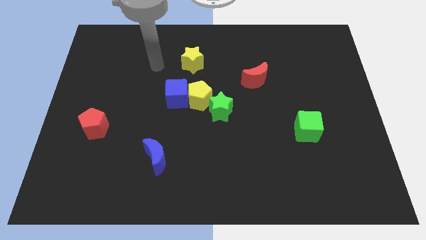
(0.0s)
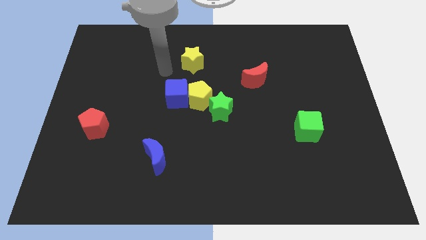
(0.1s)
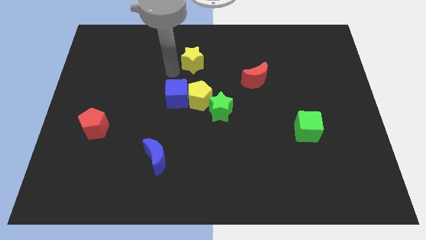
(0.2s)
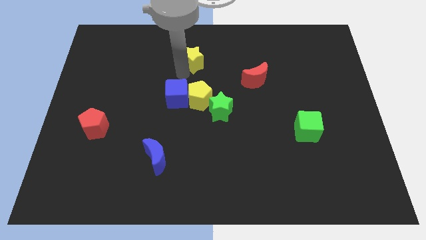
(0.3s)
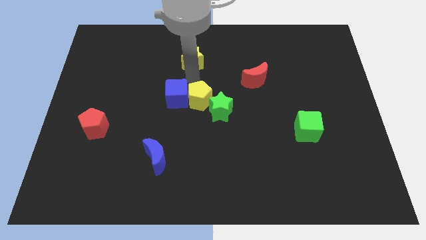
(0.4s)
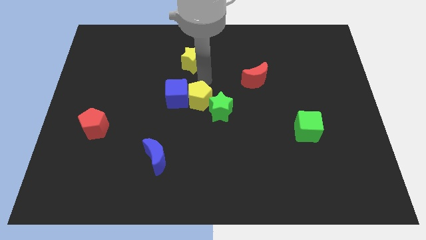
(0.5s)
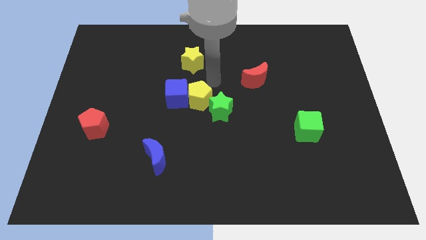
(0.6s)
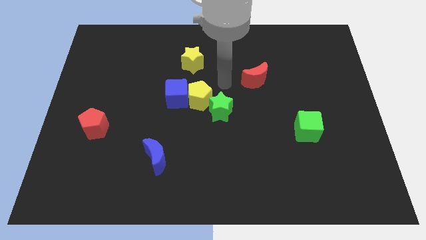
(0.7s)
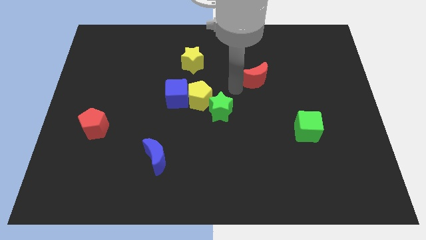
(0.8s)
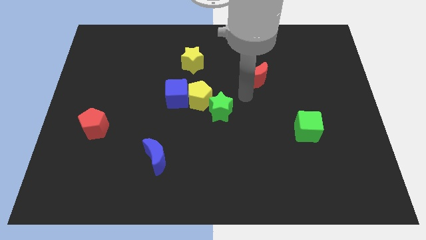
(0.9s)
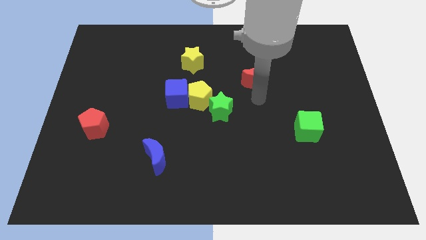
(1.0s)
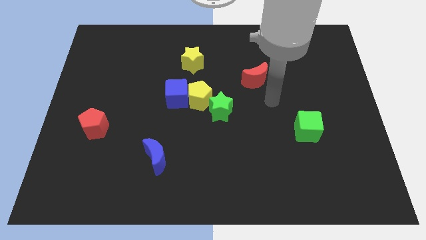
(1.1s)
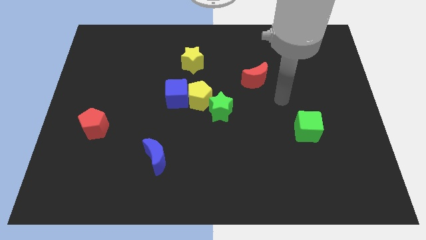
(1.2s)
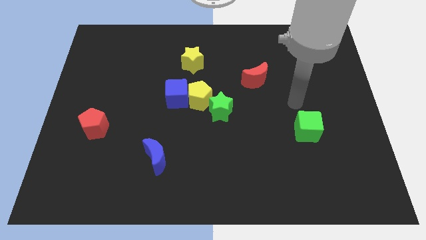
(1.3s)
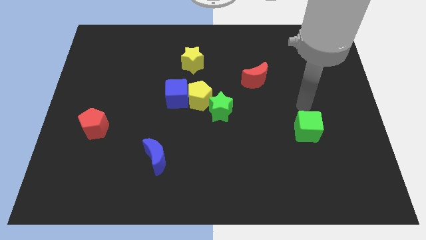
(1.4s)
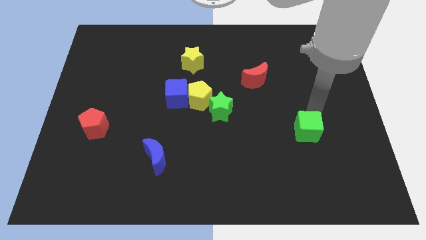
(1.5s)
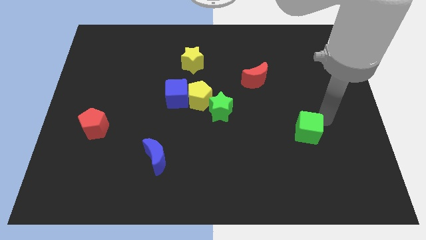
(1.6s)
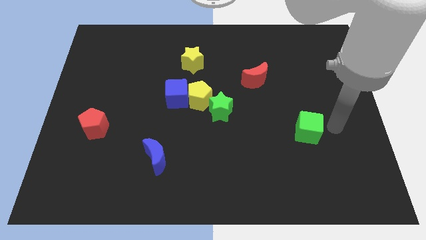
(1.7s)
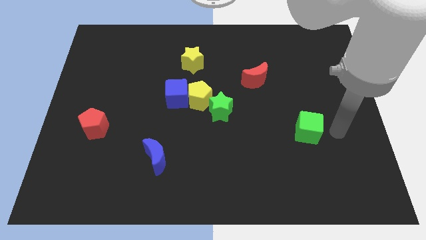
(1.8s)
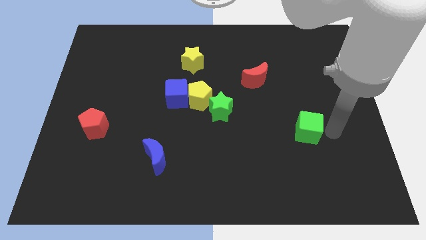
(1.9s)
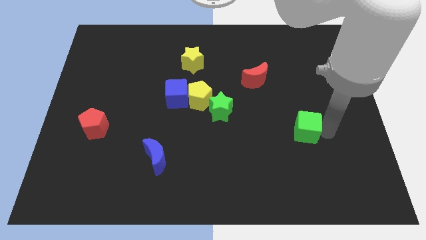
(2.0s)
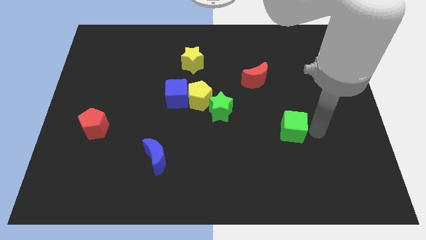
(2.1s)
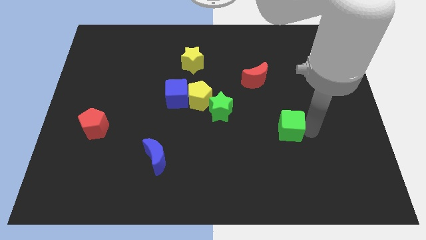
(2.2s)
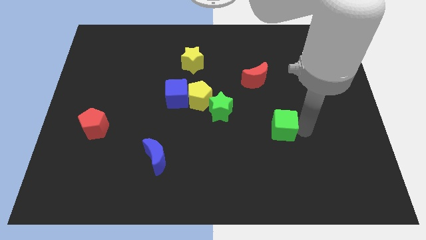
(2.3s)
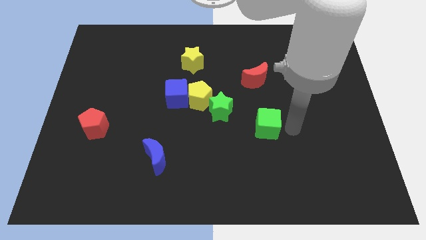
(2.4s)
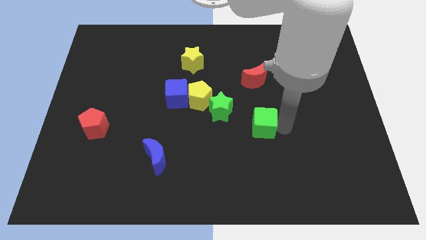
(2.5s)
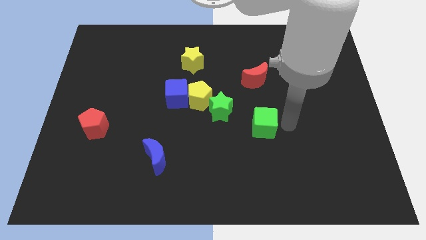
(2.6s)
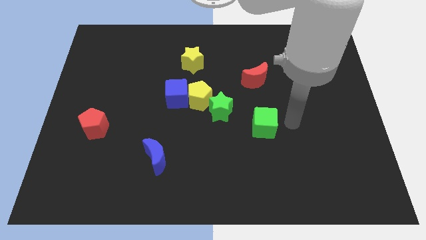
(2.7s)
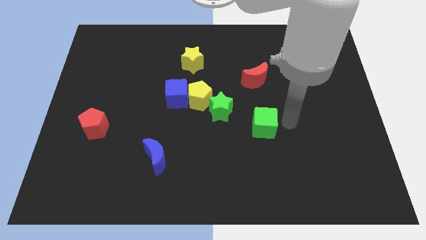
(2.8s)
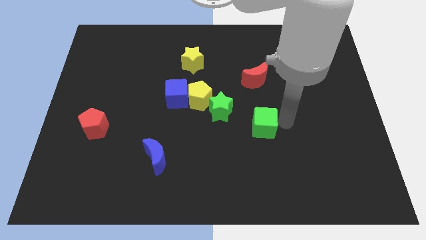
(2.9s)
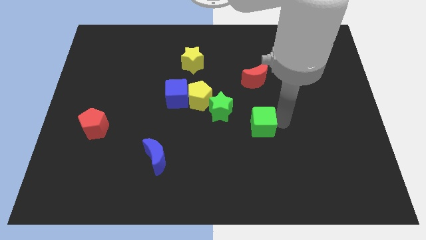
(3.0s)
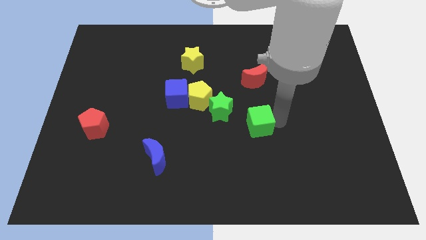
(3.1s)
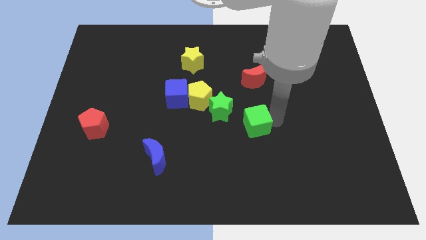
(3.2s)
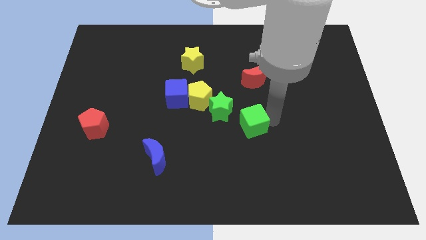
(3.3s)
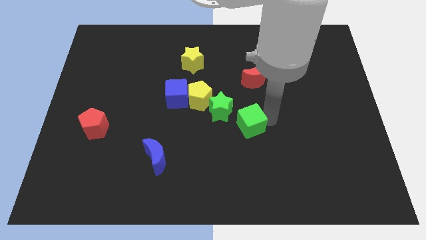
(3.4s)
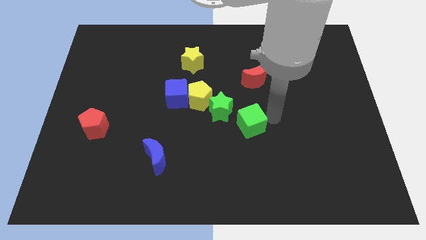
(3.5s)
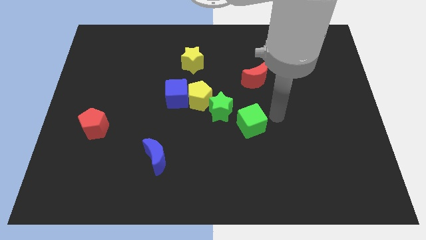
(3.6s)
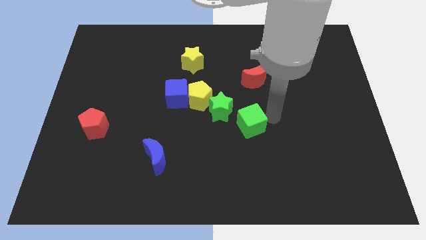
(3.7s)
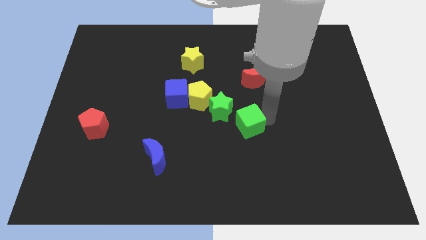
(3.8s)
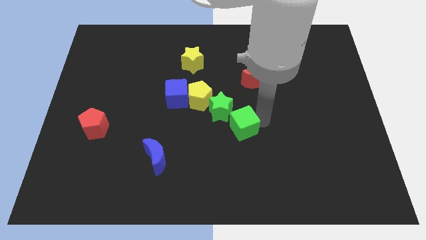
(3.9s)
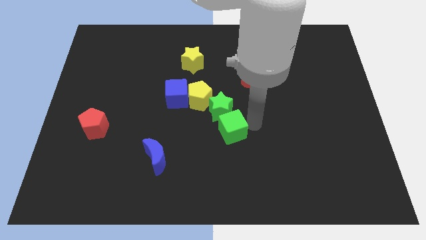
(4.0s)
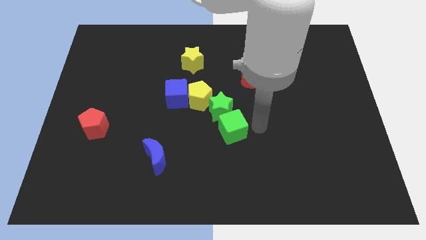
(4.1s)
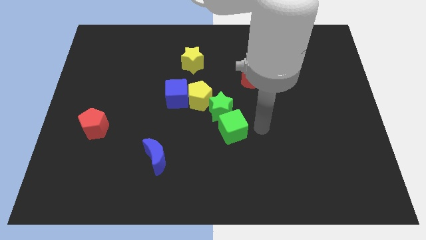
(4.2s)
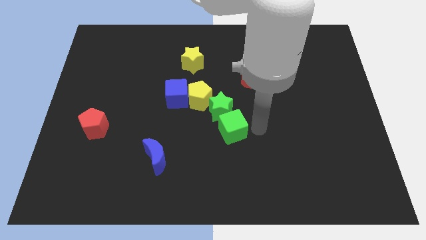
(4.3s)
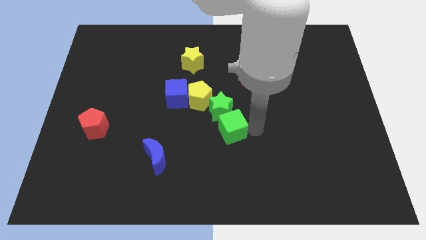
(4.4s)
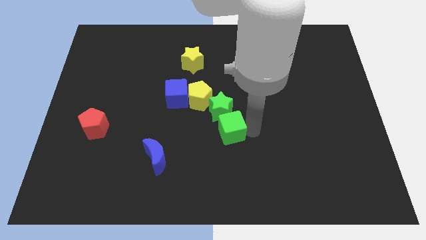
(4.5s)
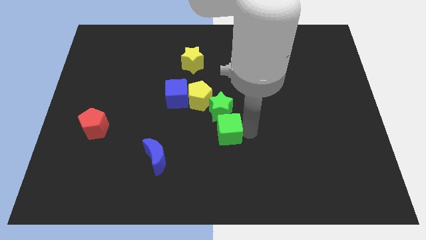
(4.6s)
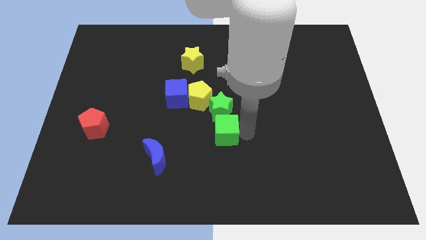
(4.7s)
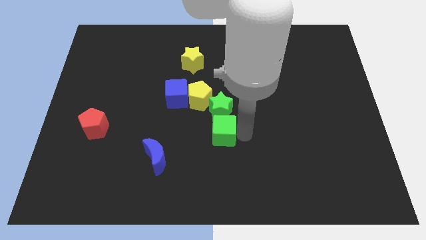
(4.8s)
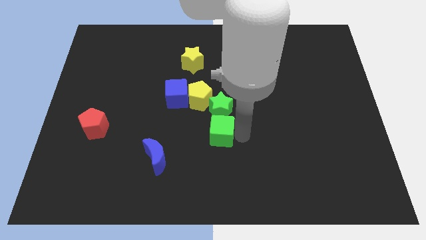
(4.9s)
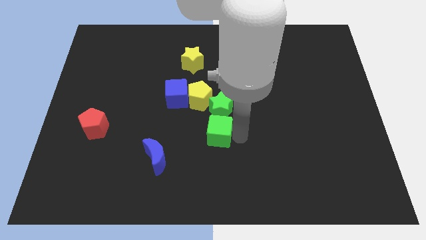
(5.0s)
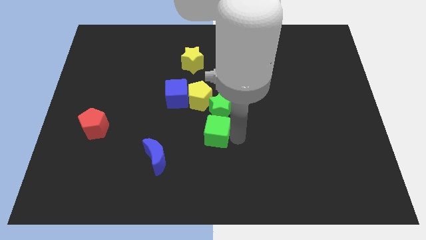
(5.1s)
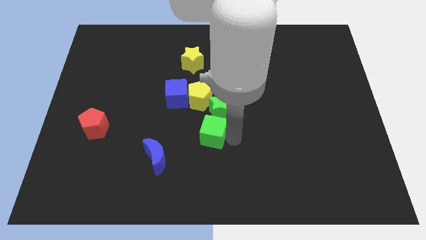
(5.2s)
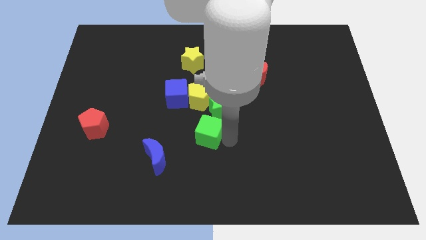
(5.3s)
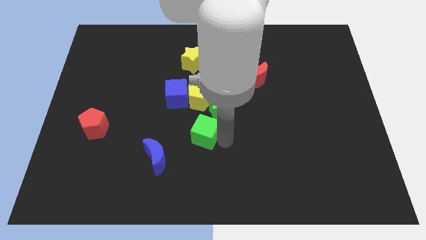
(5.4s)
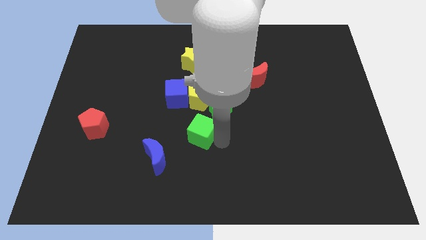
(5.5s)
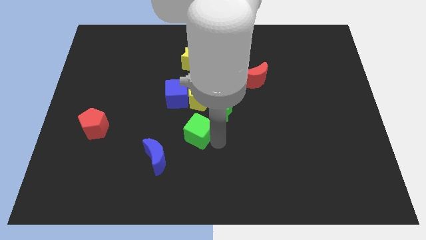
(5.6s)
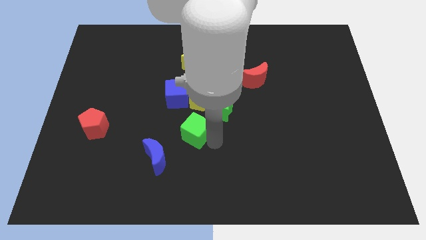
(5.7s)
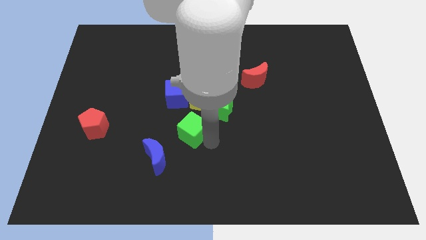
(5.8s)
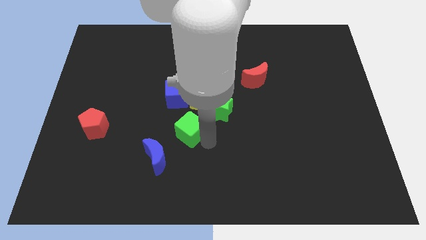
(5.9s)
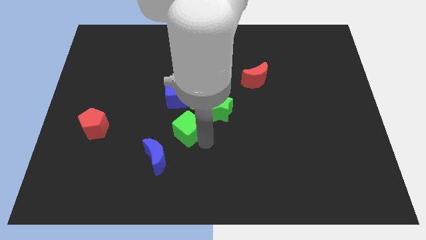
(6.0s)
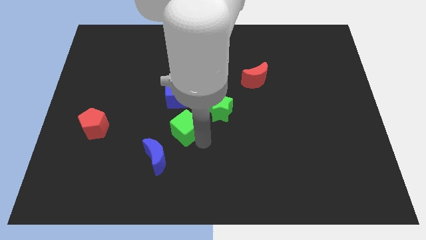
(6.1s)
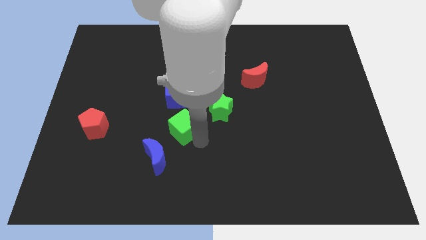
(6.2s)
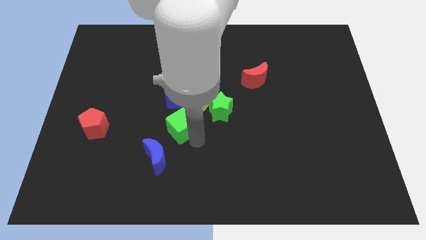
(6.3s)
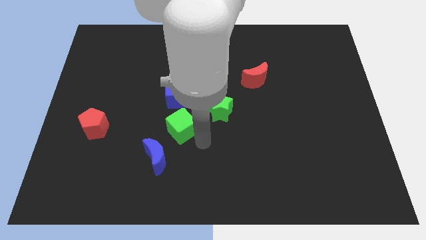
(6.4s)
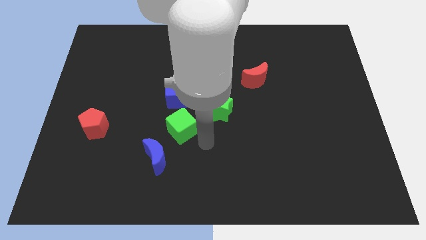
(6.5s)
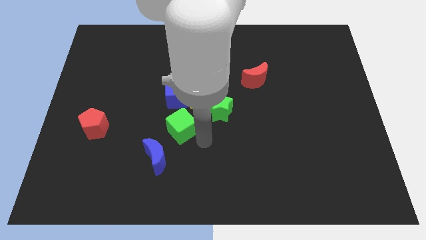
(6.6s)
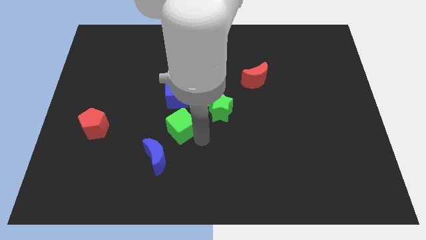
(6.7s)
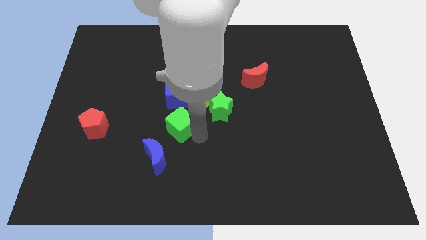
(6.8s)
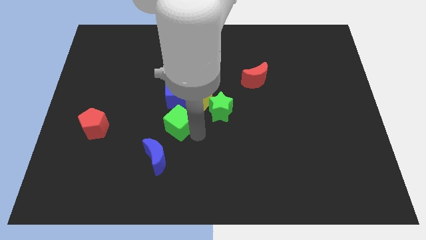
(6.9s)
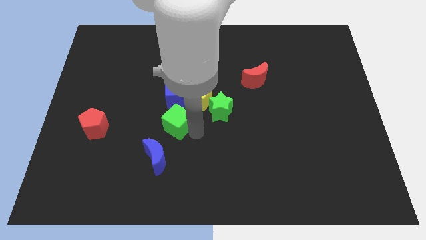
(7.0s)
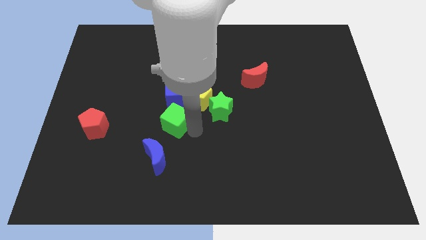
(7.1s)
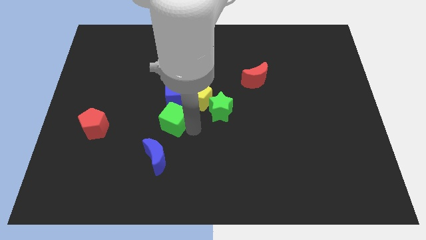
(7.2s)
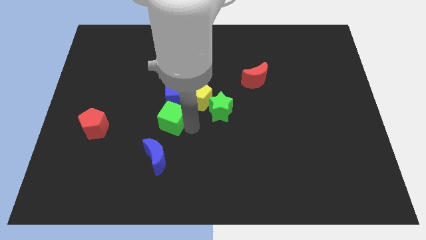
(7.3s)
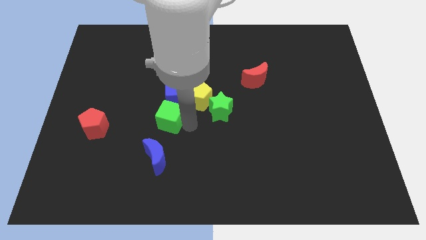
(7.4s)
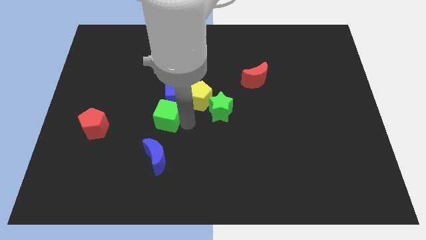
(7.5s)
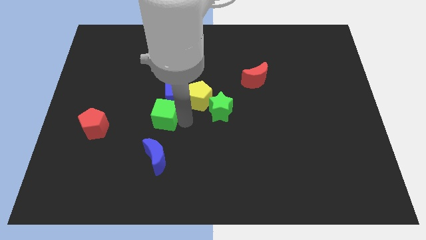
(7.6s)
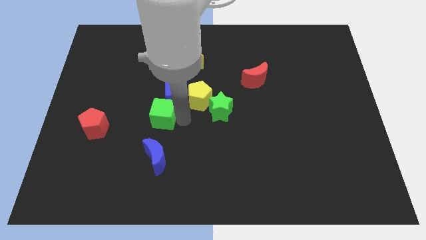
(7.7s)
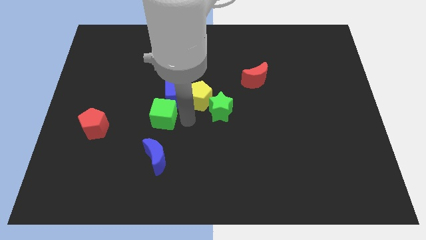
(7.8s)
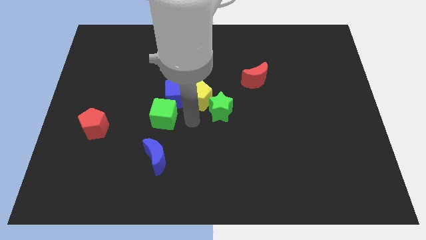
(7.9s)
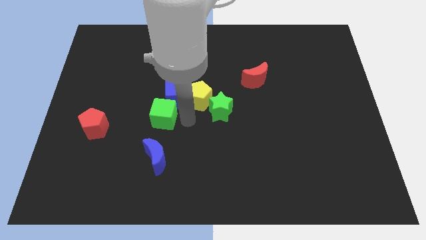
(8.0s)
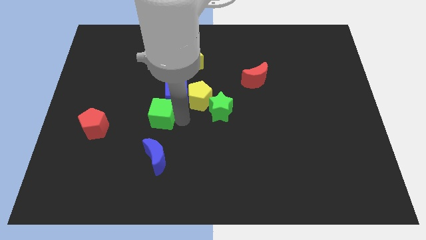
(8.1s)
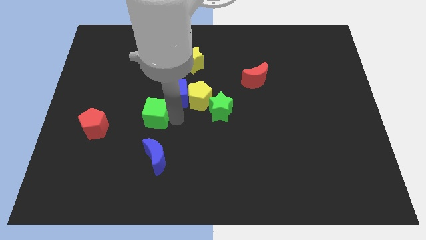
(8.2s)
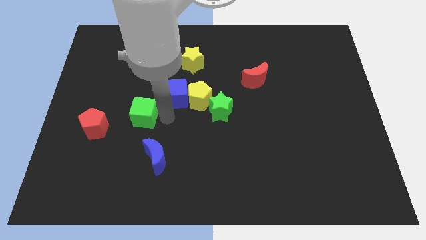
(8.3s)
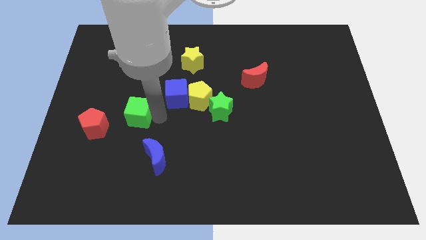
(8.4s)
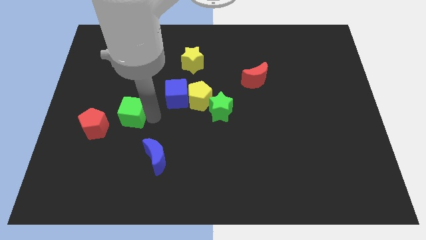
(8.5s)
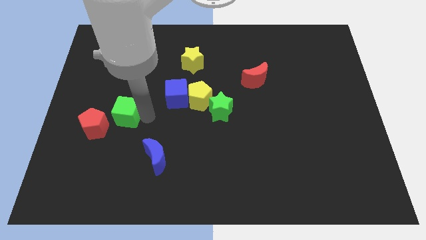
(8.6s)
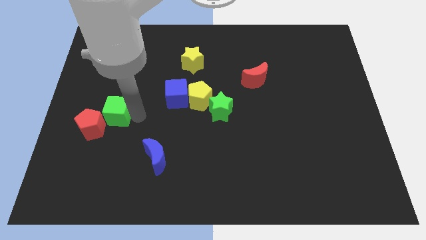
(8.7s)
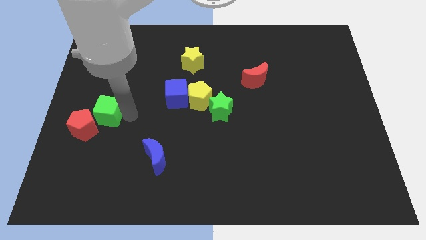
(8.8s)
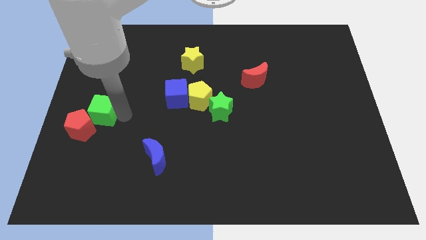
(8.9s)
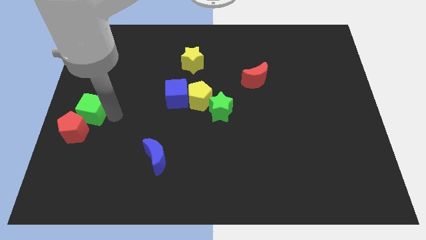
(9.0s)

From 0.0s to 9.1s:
put the green cube to the left side of the board
